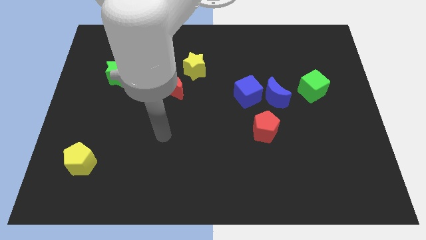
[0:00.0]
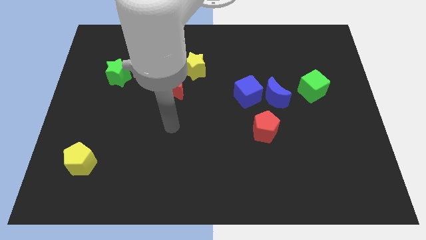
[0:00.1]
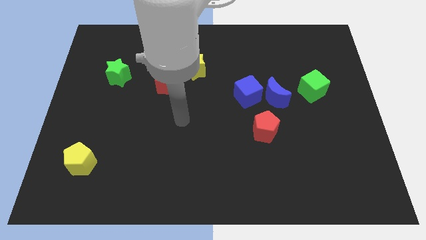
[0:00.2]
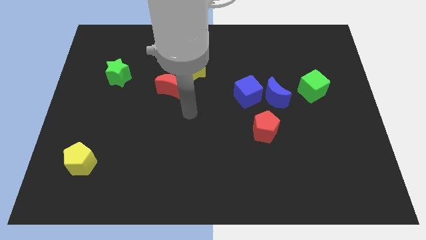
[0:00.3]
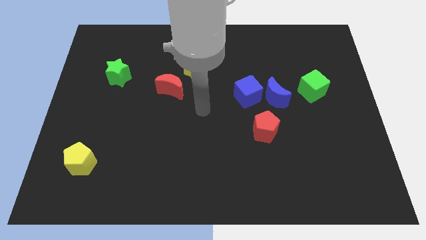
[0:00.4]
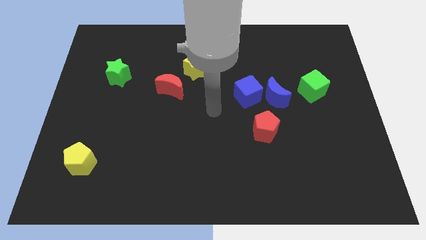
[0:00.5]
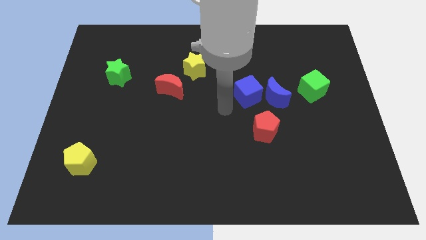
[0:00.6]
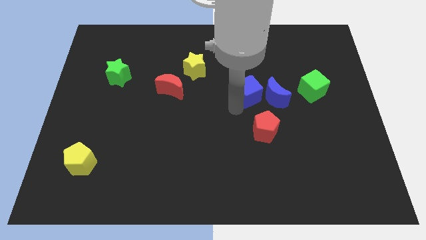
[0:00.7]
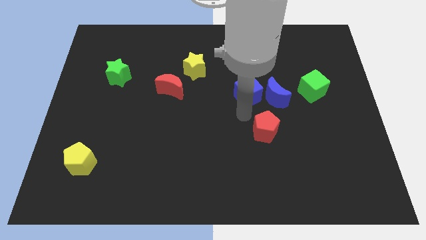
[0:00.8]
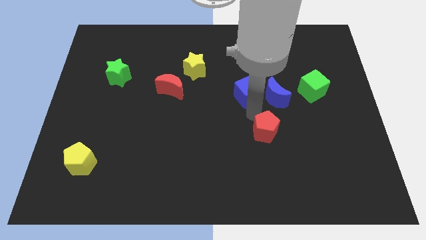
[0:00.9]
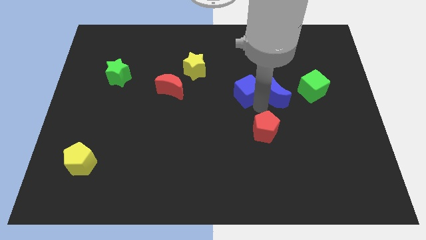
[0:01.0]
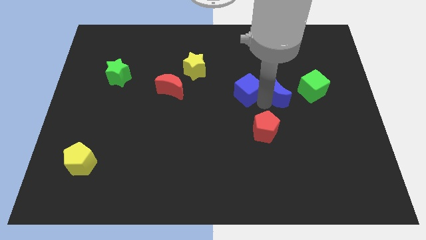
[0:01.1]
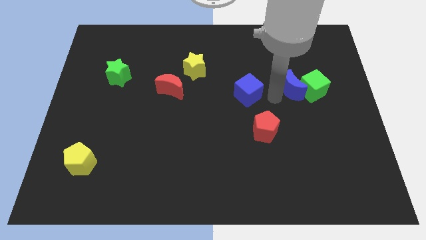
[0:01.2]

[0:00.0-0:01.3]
separate the blue cube from the blue moon

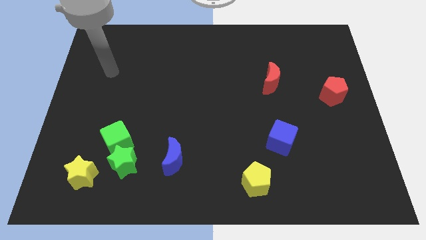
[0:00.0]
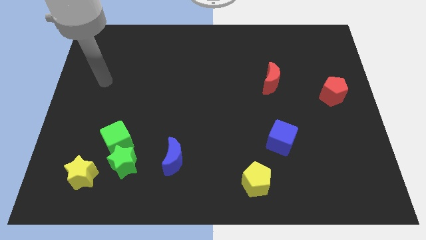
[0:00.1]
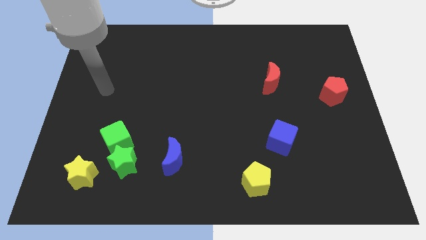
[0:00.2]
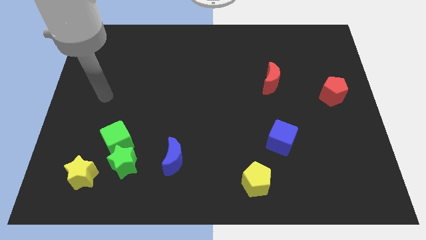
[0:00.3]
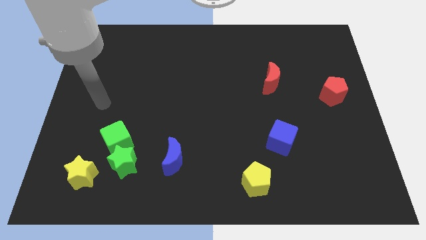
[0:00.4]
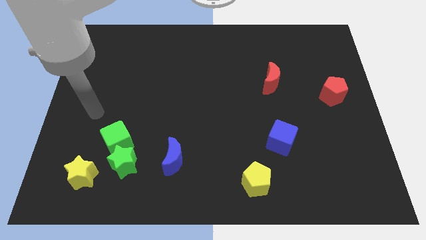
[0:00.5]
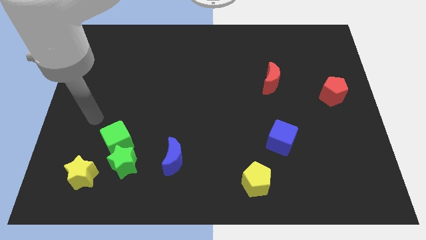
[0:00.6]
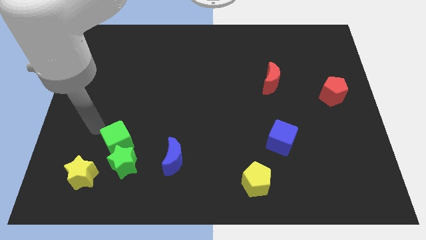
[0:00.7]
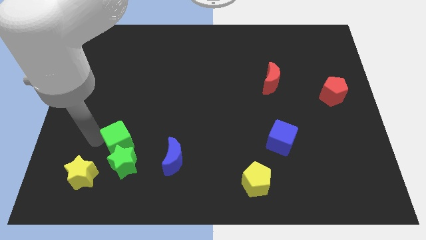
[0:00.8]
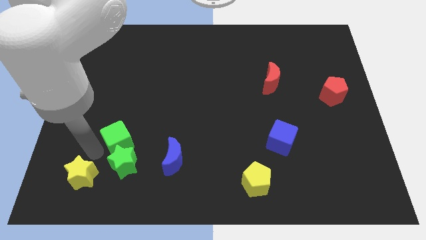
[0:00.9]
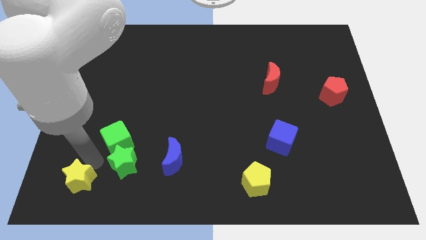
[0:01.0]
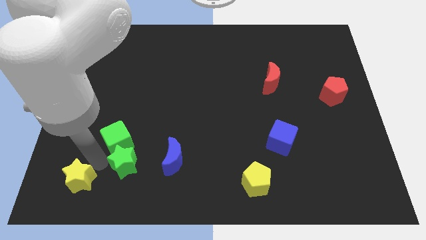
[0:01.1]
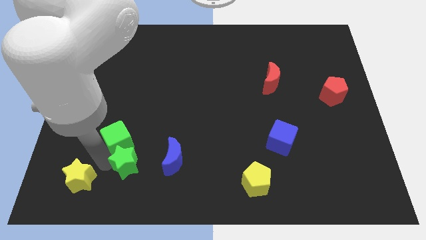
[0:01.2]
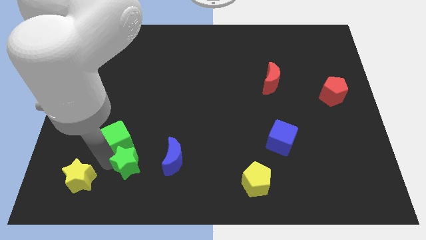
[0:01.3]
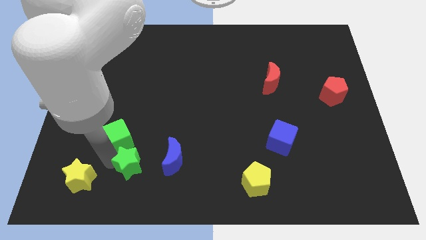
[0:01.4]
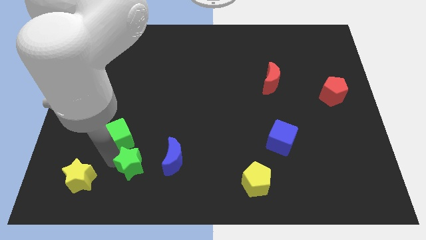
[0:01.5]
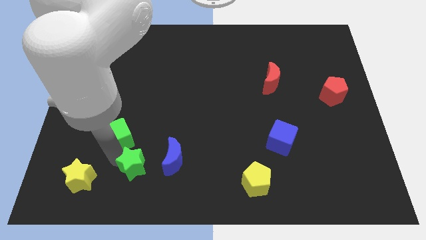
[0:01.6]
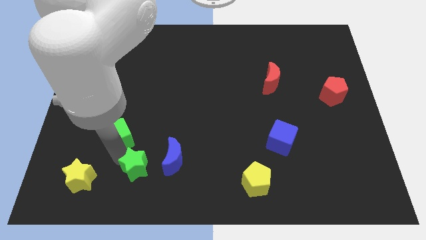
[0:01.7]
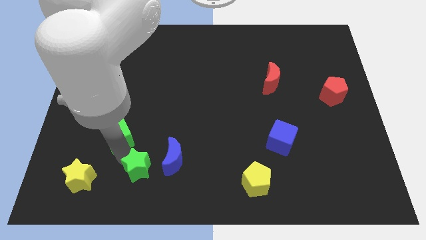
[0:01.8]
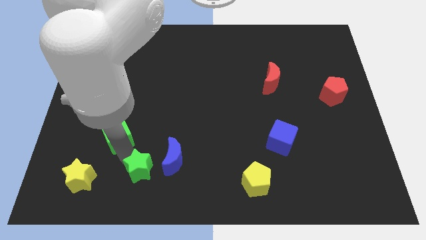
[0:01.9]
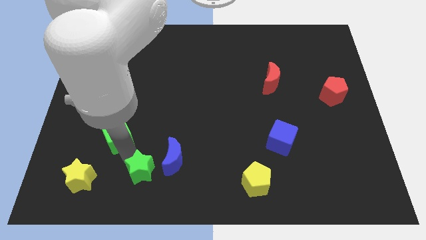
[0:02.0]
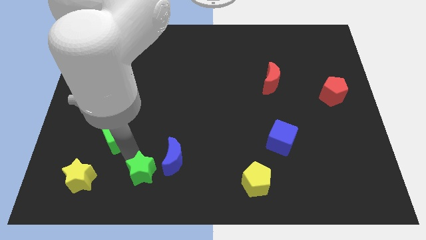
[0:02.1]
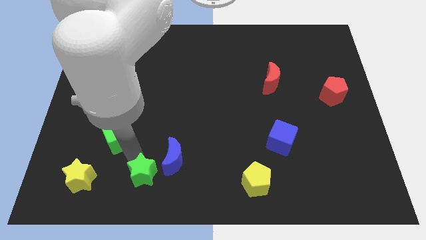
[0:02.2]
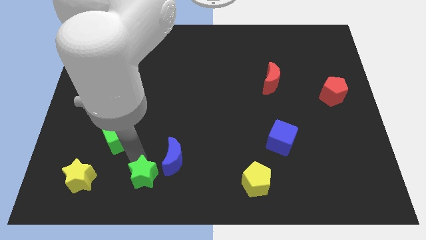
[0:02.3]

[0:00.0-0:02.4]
separate the green star from the green cube and yellow star

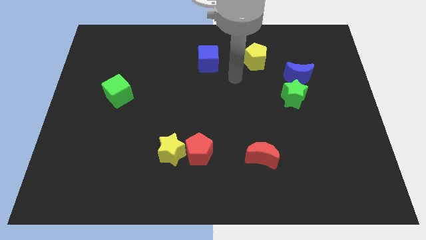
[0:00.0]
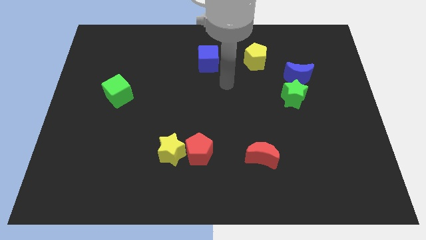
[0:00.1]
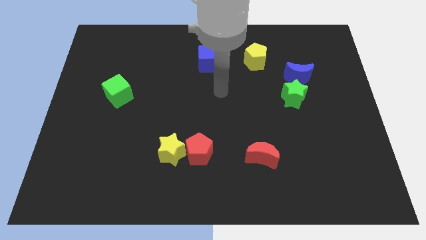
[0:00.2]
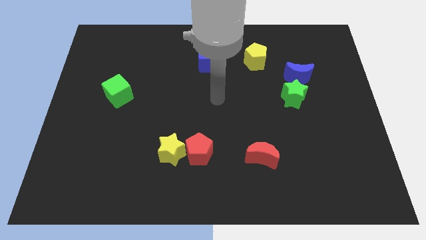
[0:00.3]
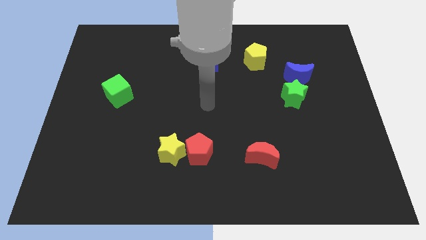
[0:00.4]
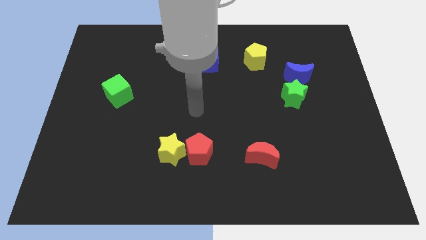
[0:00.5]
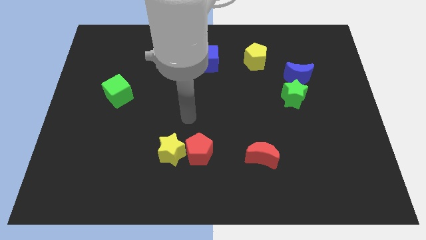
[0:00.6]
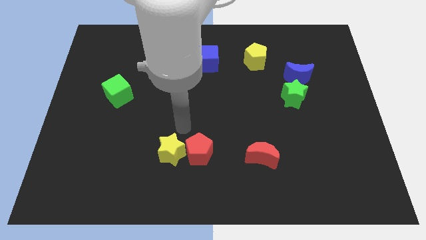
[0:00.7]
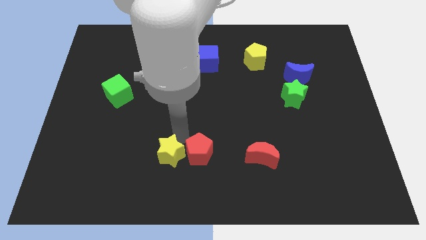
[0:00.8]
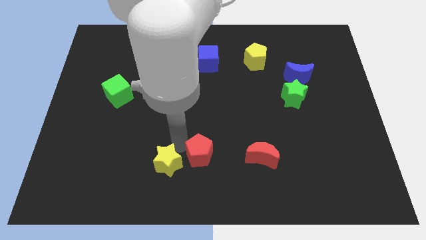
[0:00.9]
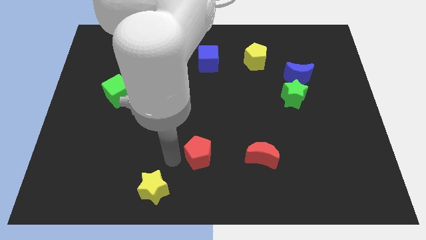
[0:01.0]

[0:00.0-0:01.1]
pull the red pentagon apart from the yellow star

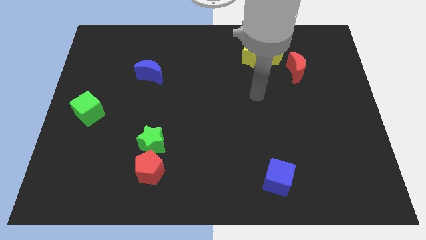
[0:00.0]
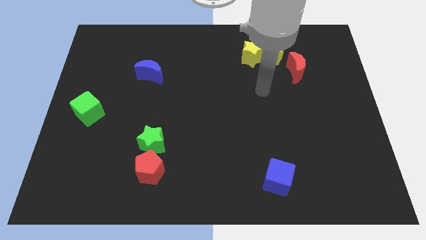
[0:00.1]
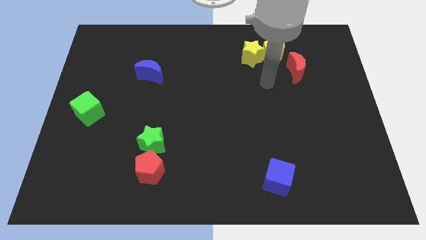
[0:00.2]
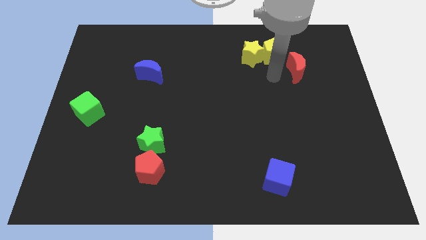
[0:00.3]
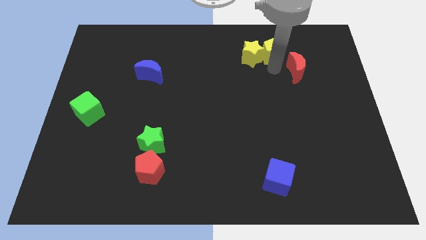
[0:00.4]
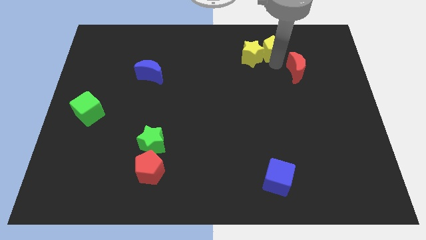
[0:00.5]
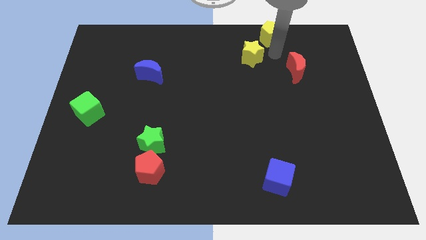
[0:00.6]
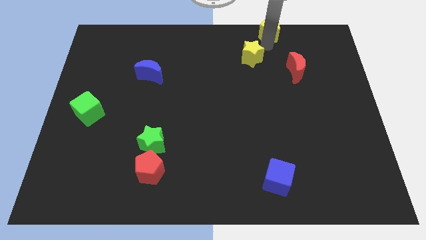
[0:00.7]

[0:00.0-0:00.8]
separate the yellow star from the yellow pentagon

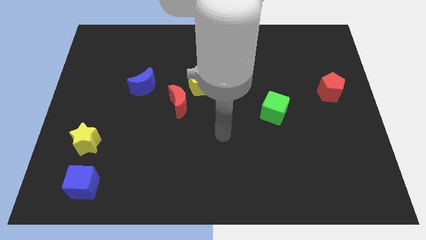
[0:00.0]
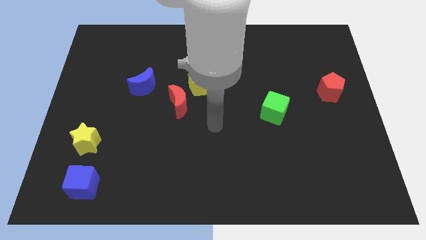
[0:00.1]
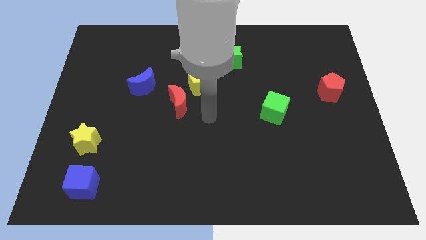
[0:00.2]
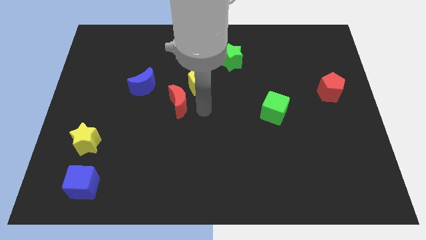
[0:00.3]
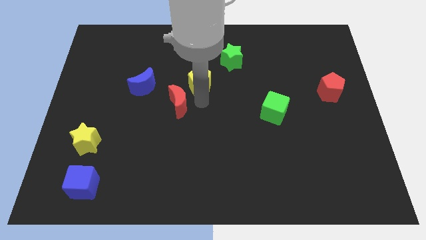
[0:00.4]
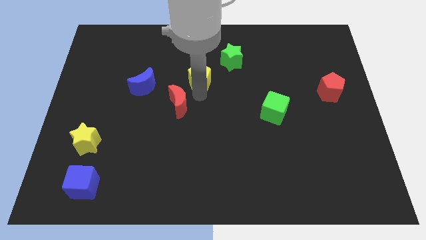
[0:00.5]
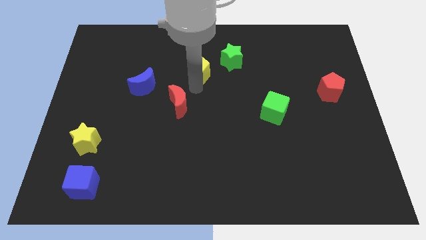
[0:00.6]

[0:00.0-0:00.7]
pull the red moon apart from the yellow pentagon

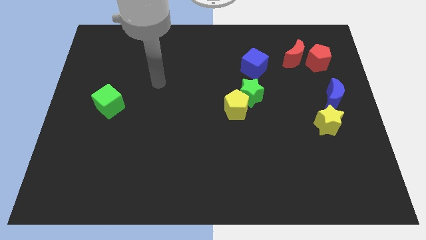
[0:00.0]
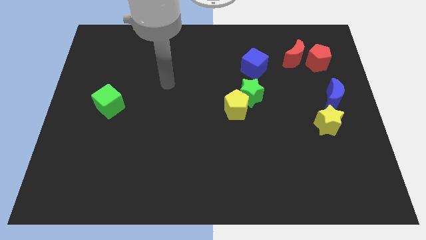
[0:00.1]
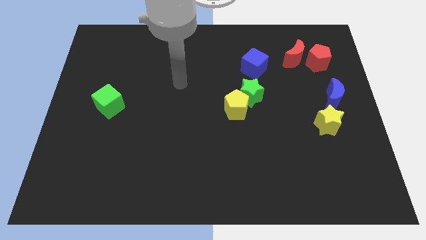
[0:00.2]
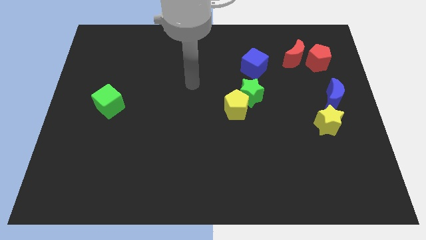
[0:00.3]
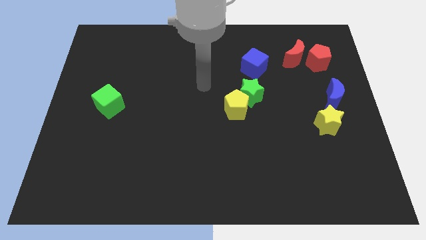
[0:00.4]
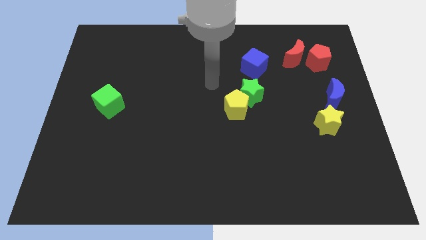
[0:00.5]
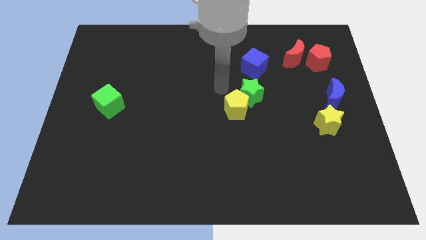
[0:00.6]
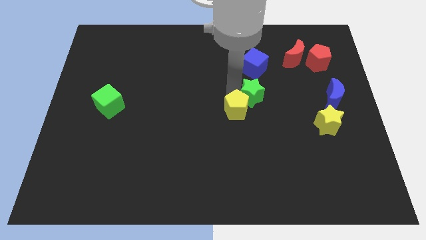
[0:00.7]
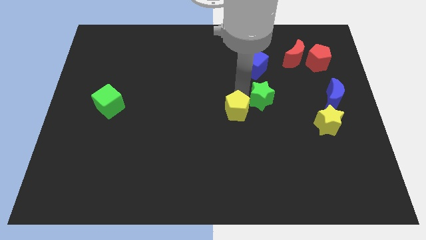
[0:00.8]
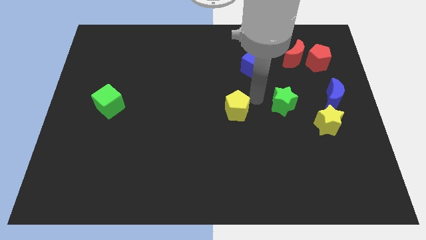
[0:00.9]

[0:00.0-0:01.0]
pull the yellow pentagon apart from the green star

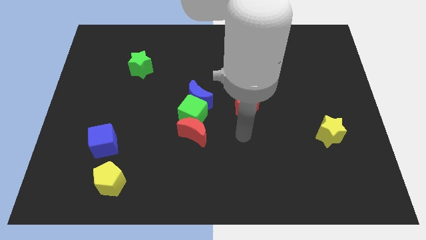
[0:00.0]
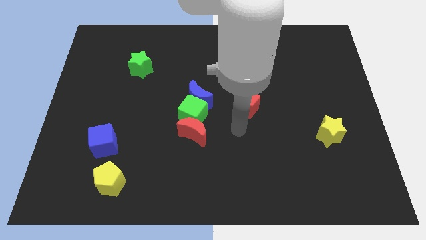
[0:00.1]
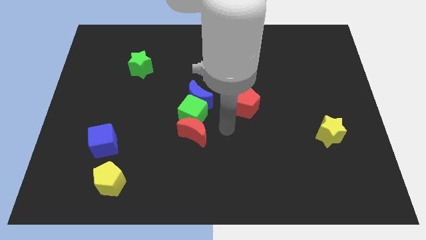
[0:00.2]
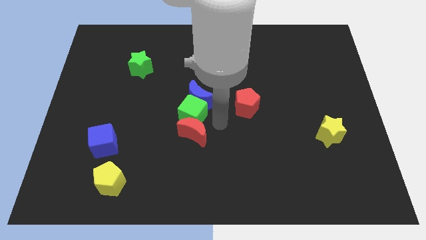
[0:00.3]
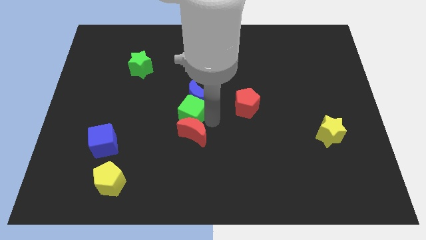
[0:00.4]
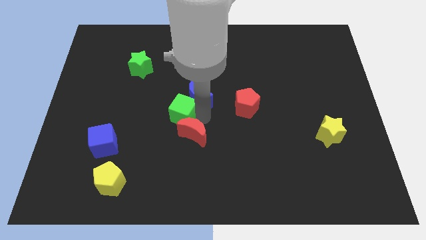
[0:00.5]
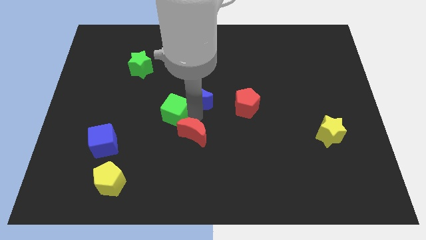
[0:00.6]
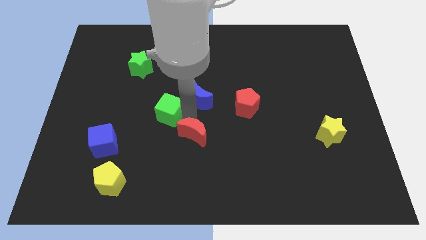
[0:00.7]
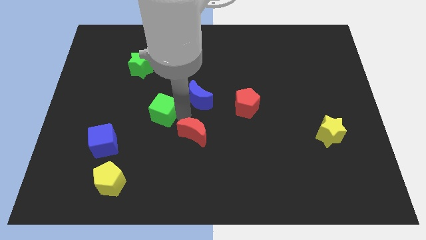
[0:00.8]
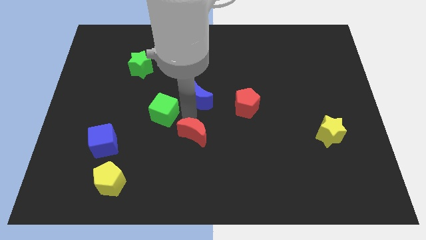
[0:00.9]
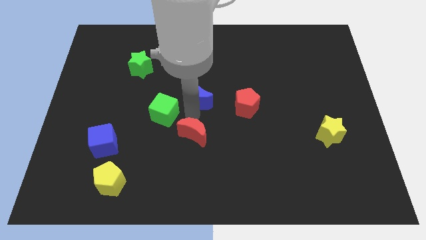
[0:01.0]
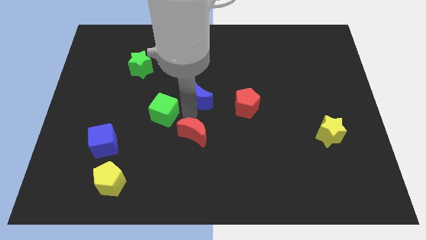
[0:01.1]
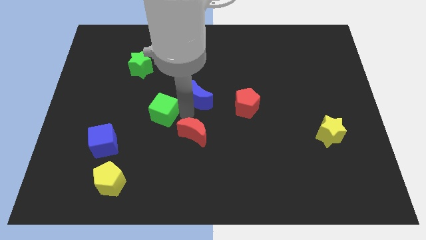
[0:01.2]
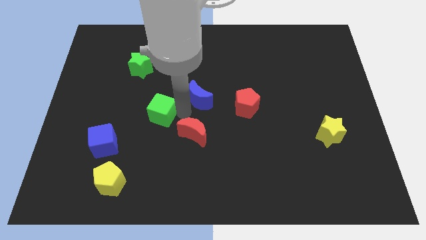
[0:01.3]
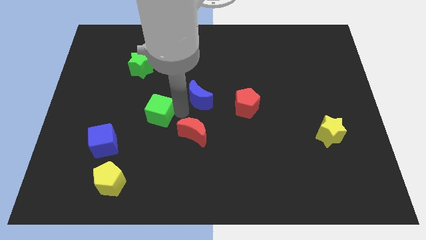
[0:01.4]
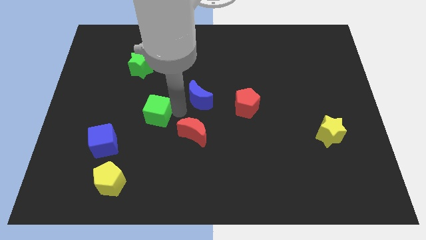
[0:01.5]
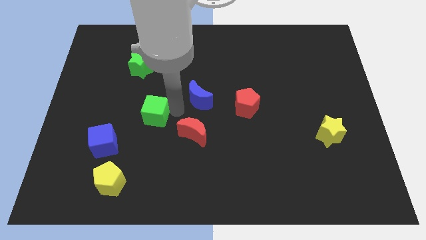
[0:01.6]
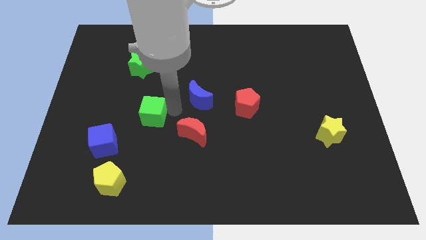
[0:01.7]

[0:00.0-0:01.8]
separate the green cube from the blue moon and red moon

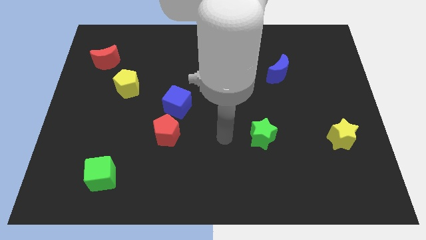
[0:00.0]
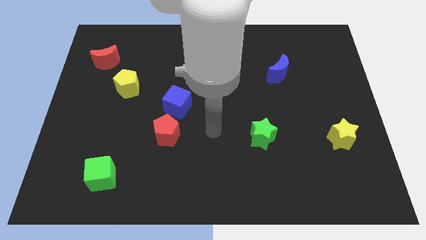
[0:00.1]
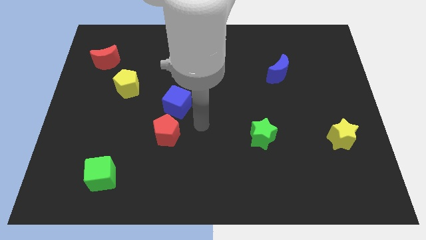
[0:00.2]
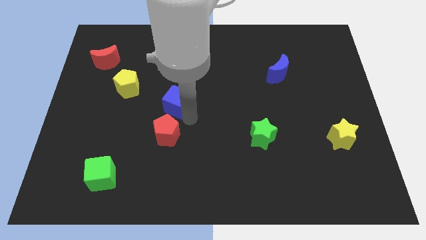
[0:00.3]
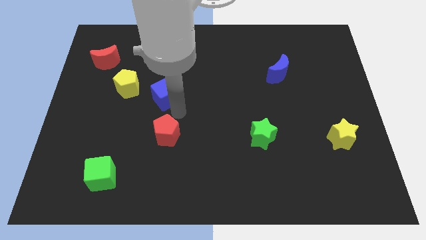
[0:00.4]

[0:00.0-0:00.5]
separate the red pentagon from the blue cube
